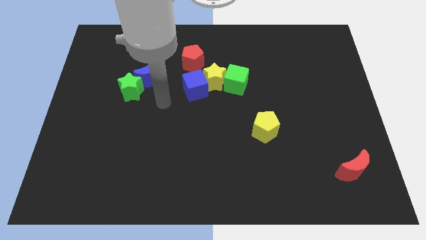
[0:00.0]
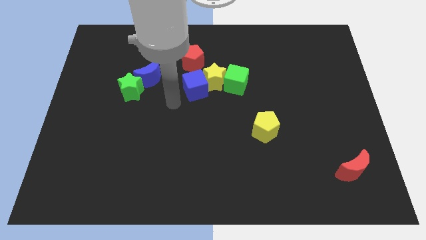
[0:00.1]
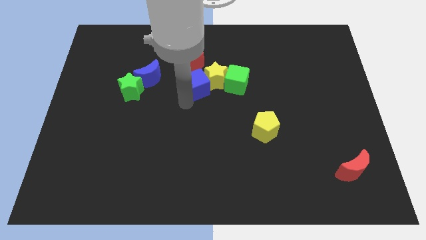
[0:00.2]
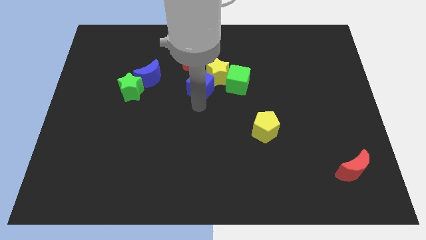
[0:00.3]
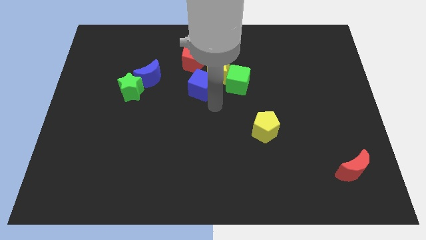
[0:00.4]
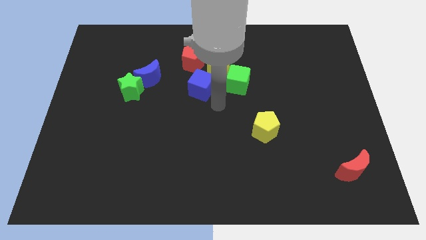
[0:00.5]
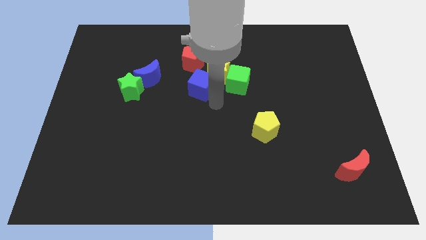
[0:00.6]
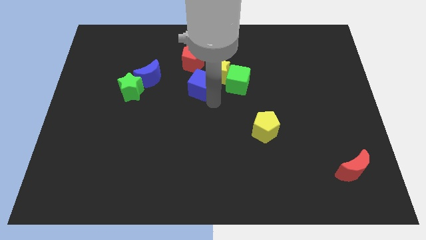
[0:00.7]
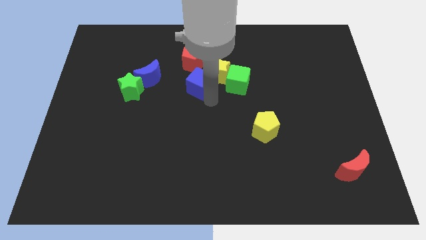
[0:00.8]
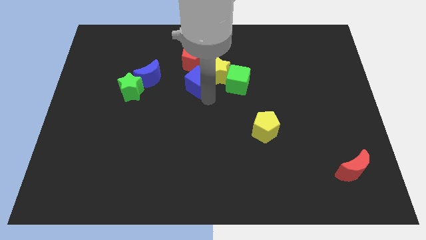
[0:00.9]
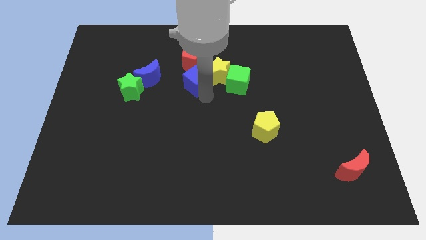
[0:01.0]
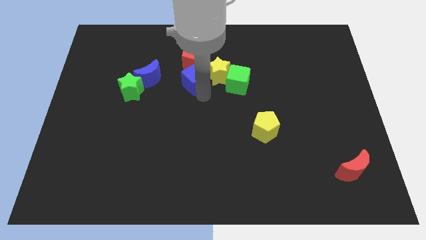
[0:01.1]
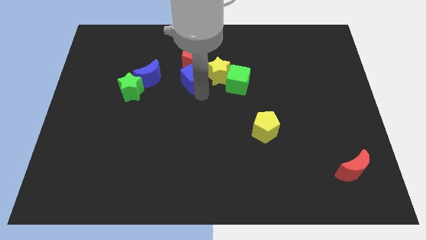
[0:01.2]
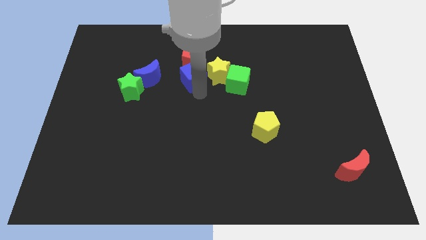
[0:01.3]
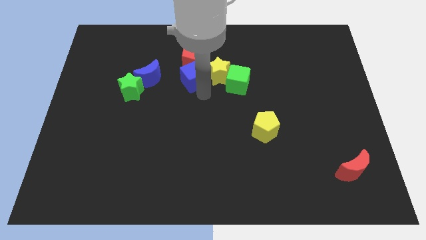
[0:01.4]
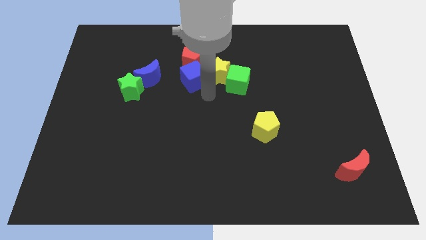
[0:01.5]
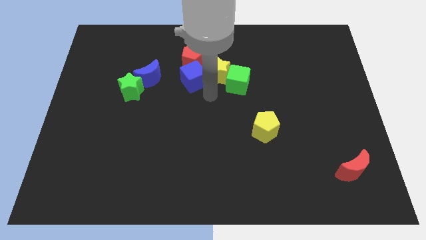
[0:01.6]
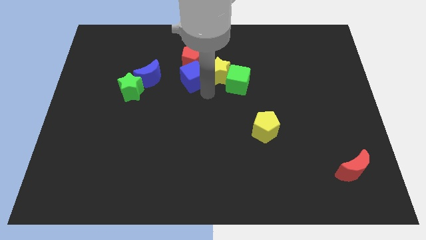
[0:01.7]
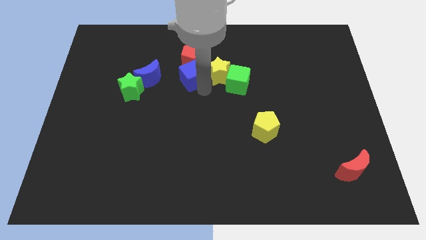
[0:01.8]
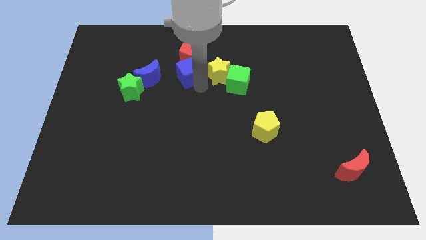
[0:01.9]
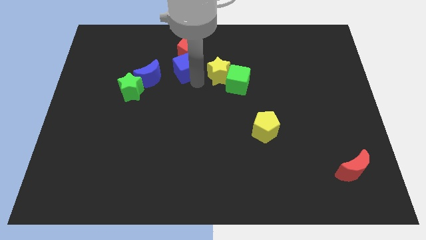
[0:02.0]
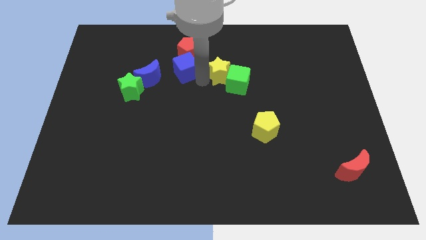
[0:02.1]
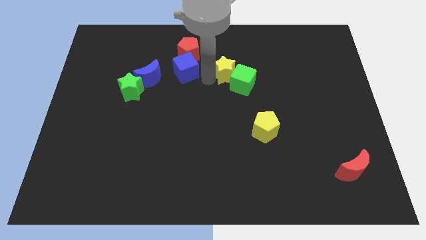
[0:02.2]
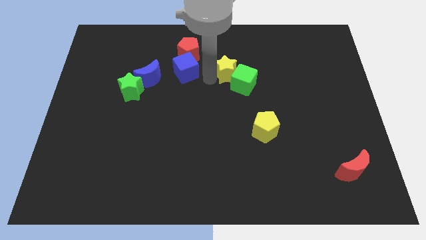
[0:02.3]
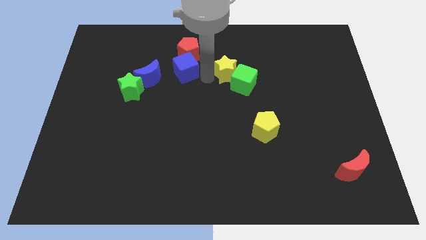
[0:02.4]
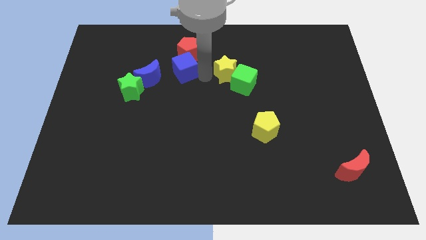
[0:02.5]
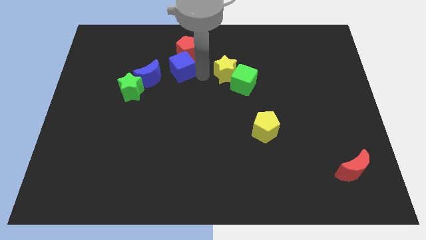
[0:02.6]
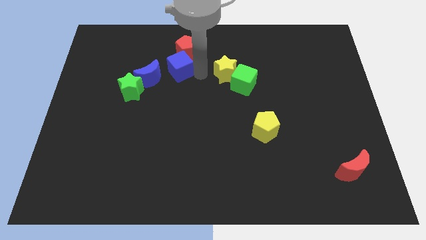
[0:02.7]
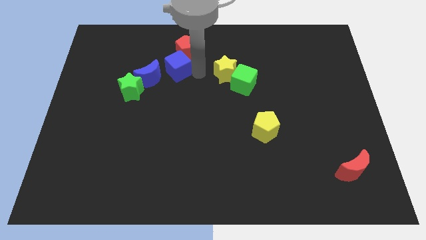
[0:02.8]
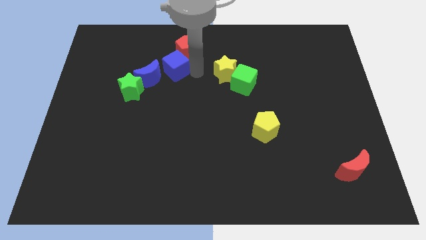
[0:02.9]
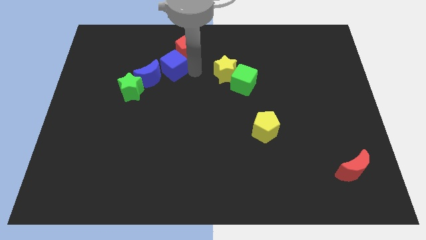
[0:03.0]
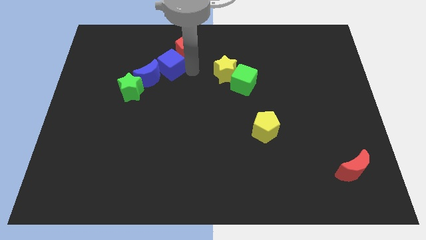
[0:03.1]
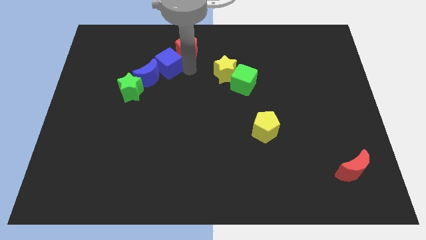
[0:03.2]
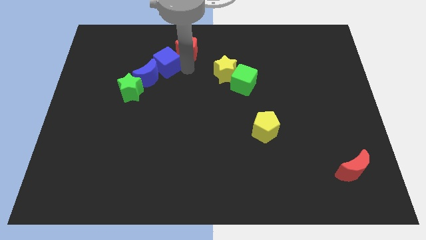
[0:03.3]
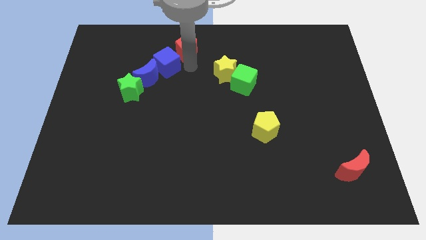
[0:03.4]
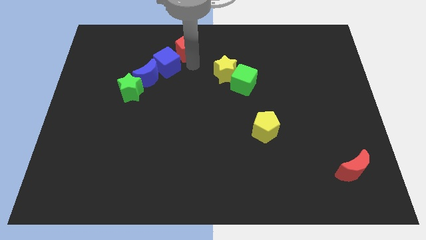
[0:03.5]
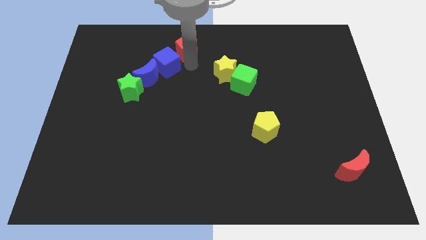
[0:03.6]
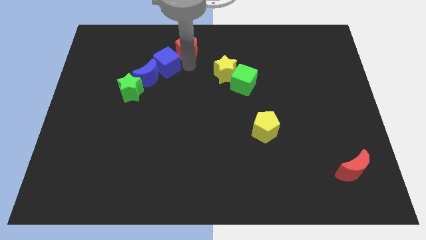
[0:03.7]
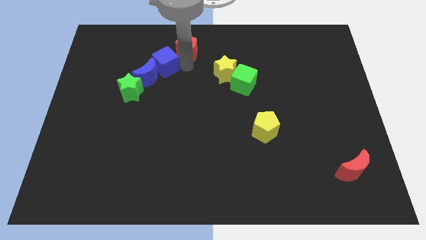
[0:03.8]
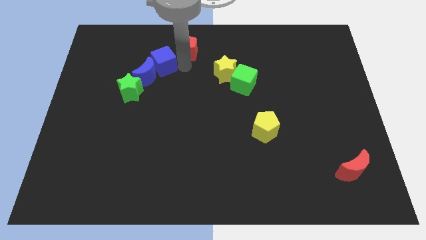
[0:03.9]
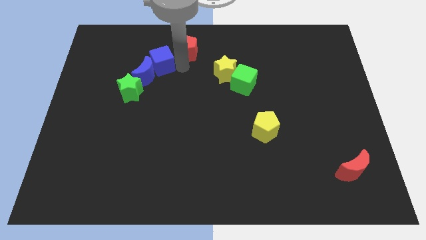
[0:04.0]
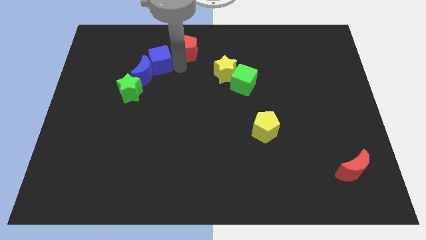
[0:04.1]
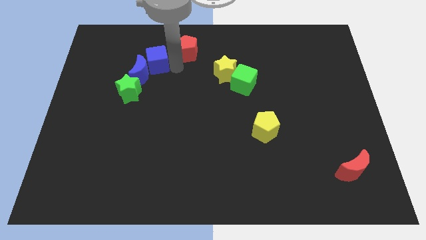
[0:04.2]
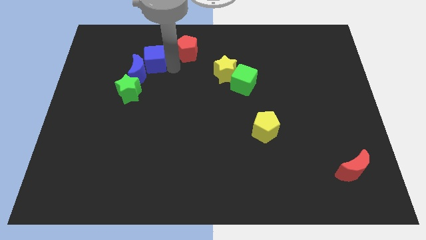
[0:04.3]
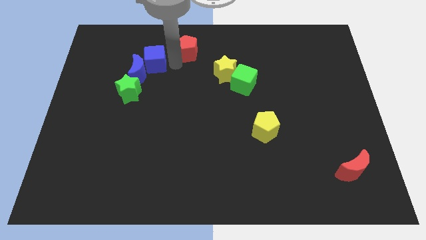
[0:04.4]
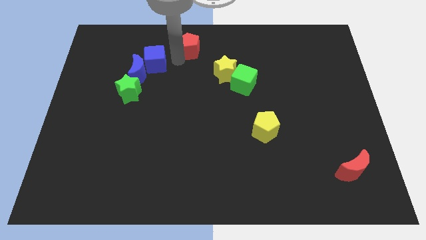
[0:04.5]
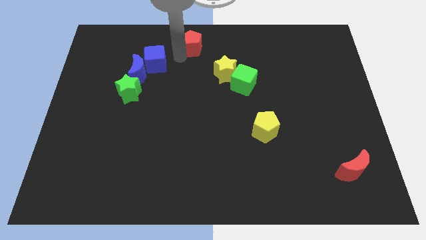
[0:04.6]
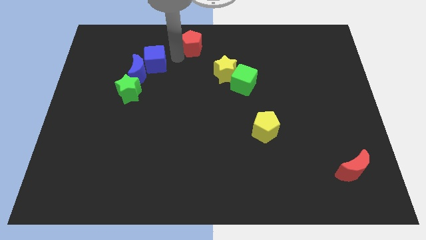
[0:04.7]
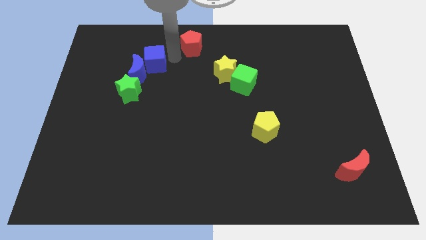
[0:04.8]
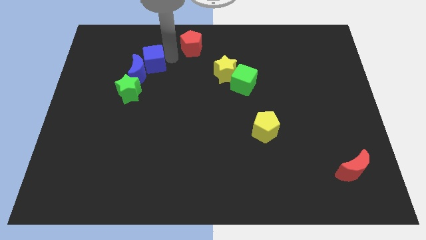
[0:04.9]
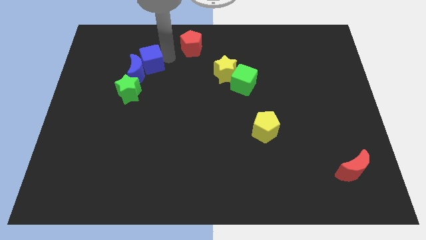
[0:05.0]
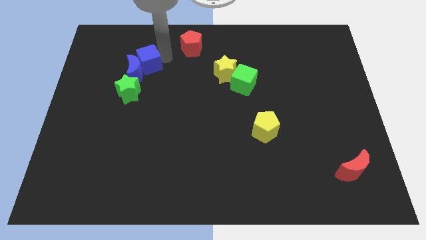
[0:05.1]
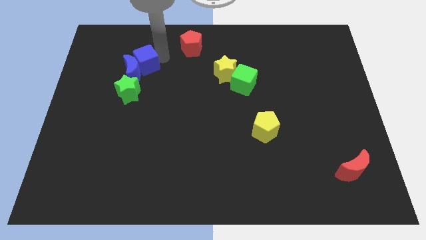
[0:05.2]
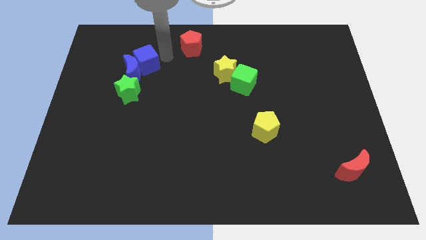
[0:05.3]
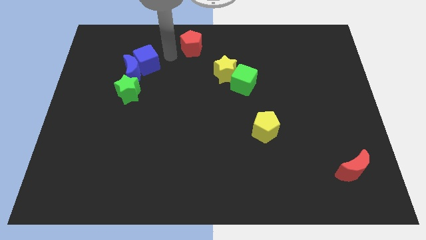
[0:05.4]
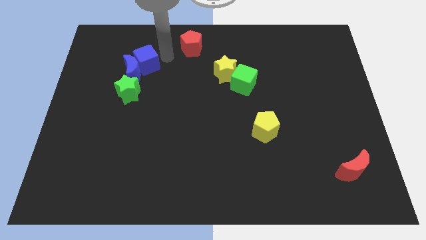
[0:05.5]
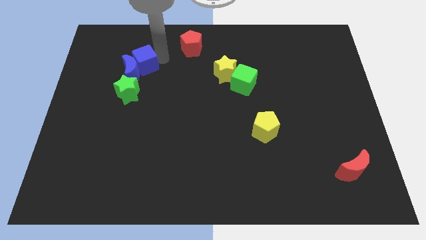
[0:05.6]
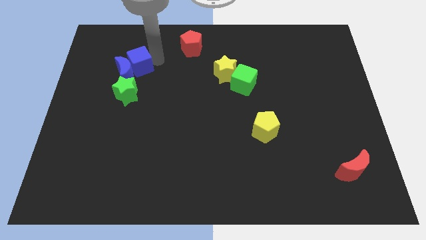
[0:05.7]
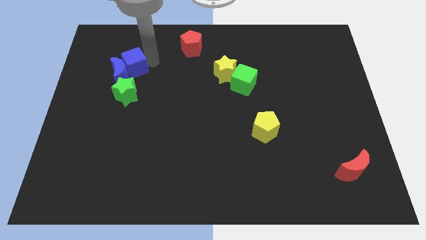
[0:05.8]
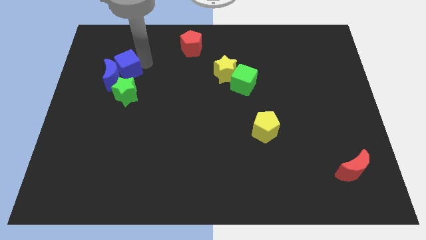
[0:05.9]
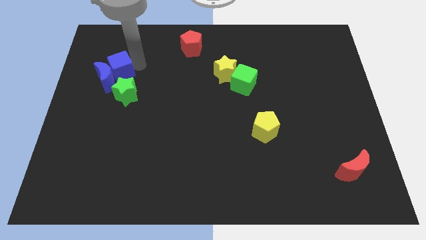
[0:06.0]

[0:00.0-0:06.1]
slide the blue cube to the top left of the green star

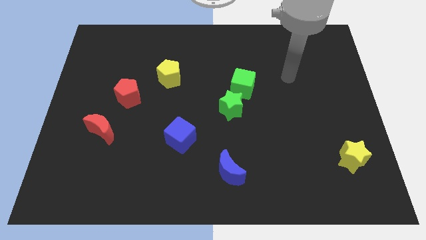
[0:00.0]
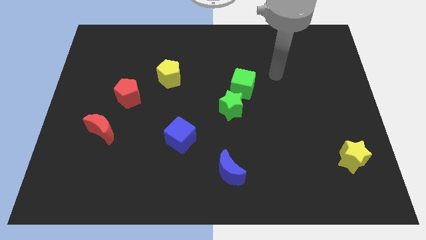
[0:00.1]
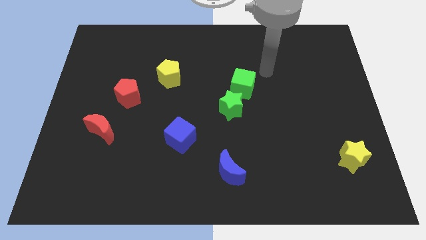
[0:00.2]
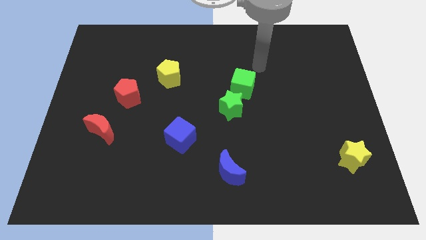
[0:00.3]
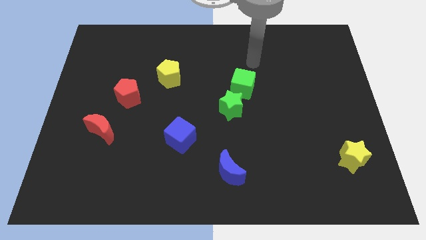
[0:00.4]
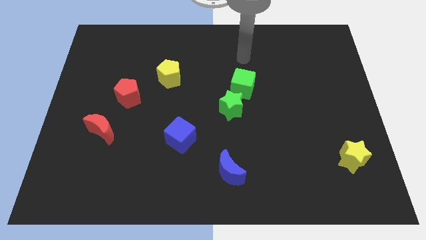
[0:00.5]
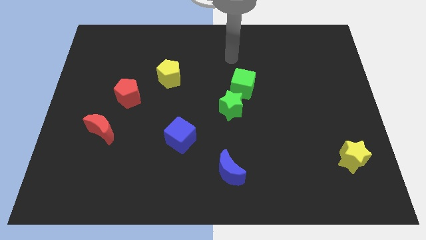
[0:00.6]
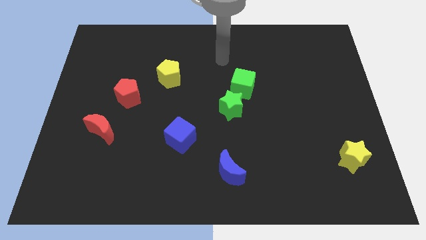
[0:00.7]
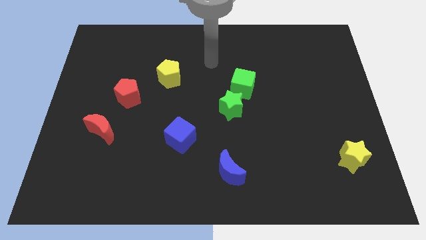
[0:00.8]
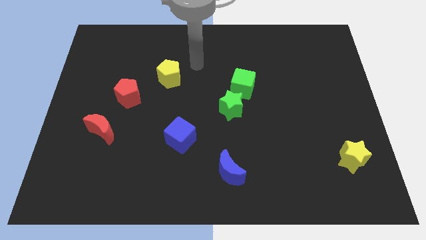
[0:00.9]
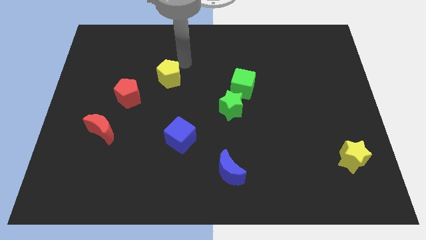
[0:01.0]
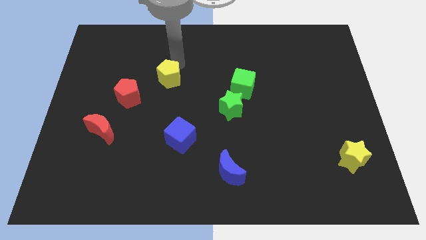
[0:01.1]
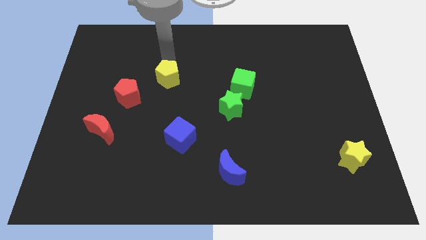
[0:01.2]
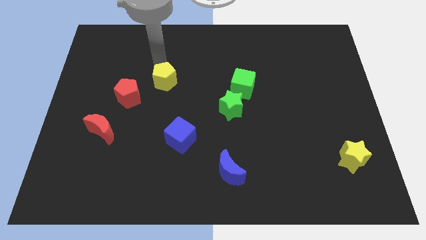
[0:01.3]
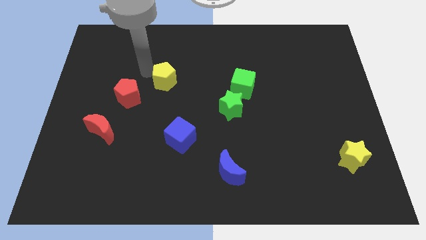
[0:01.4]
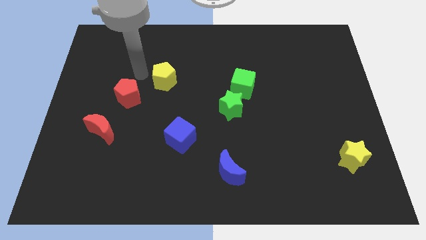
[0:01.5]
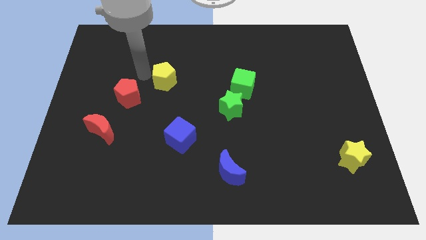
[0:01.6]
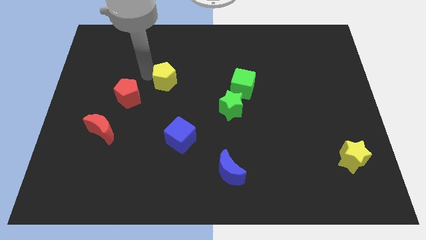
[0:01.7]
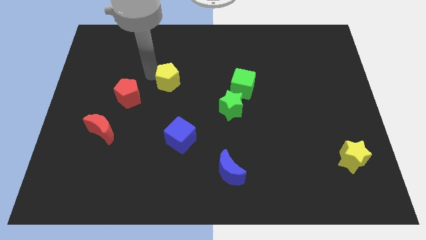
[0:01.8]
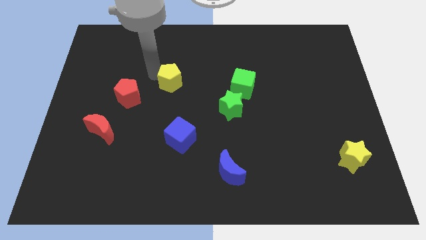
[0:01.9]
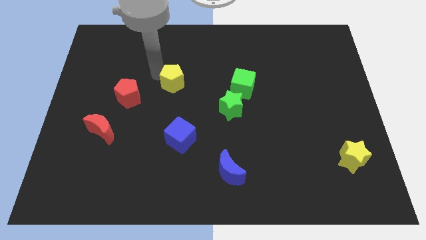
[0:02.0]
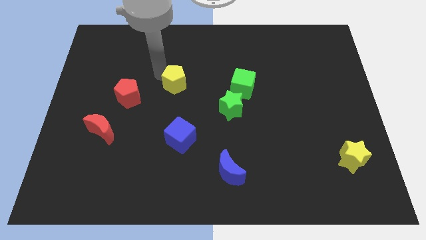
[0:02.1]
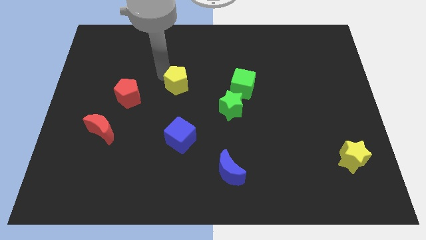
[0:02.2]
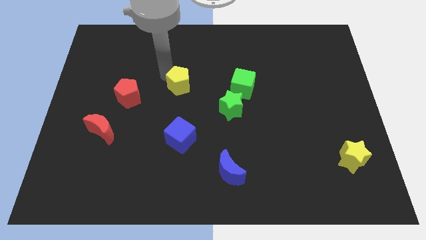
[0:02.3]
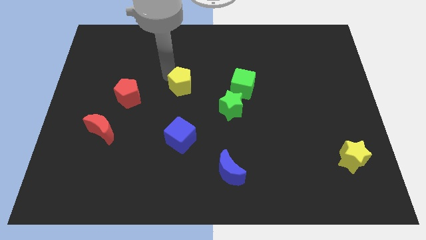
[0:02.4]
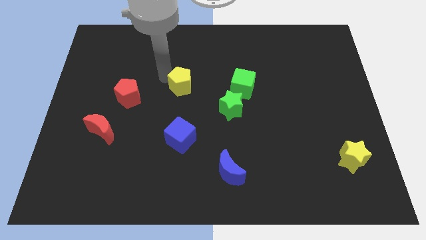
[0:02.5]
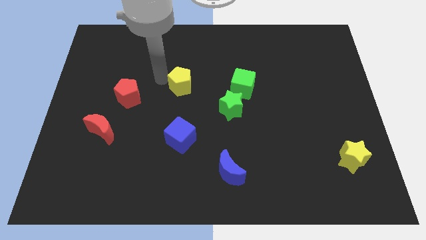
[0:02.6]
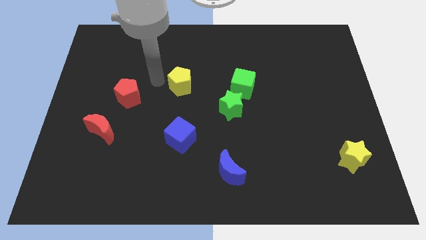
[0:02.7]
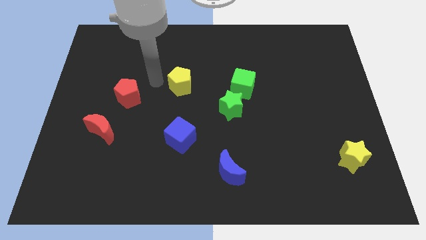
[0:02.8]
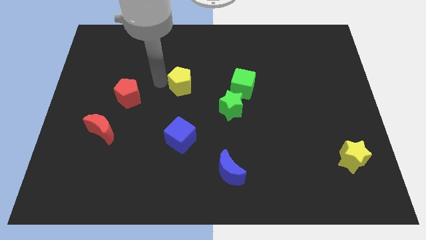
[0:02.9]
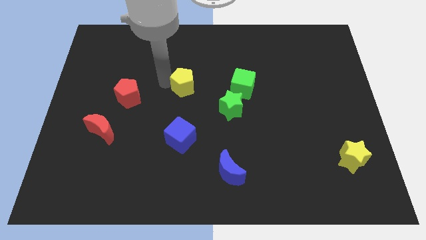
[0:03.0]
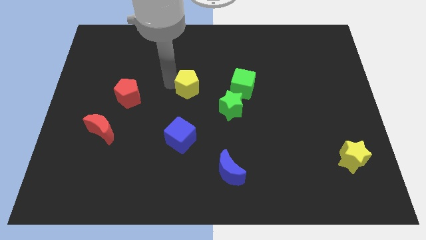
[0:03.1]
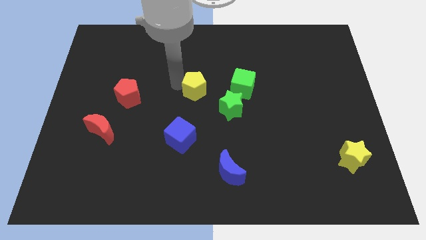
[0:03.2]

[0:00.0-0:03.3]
slide the yellow pentagon to the top left side of the green star
